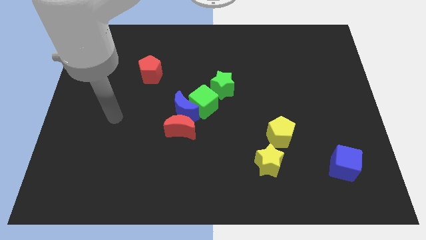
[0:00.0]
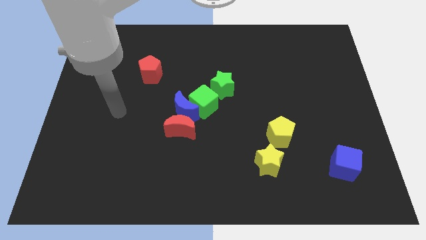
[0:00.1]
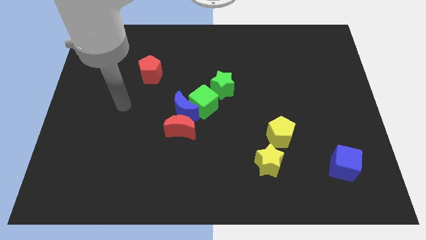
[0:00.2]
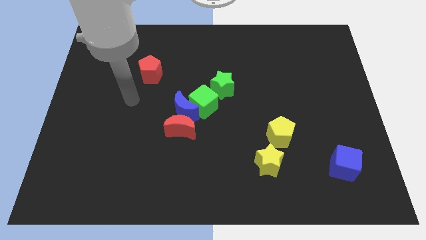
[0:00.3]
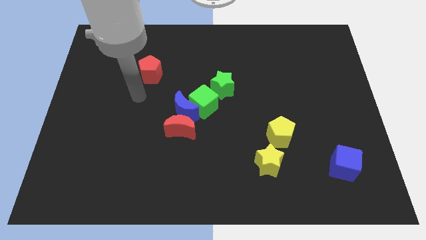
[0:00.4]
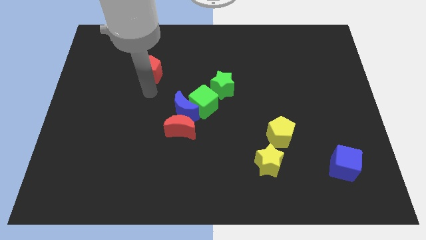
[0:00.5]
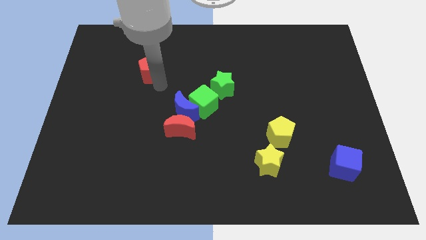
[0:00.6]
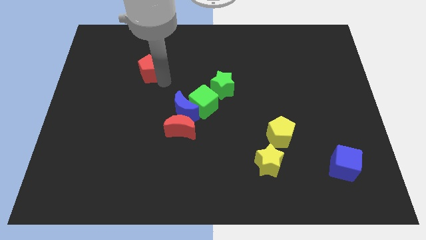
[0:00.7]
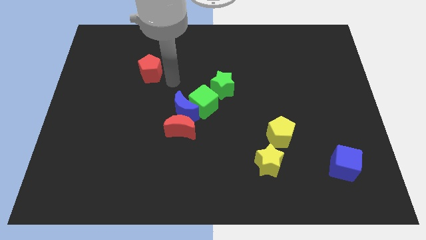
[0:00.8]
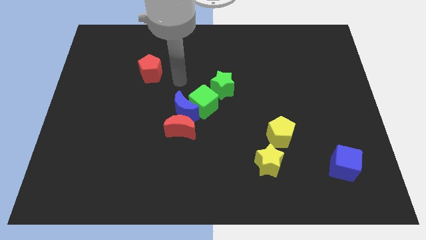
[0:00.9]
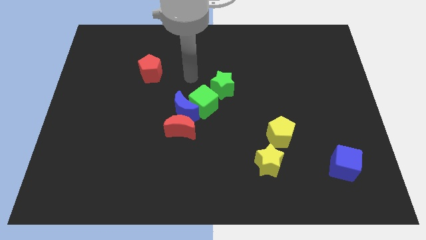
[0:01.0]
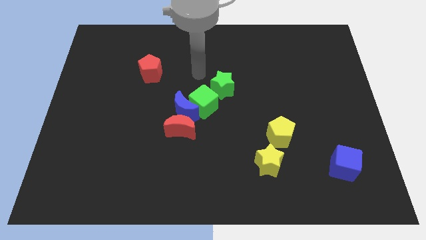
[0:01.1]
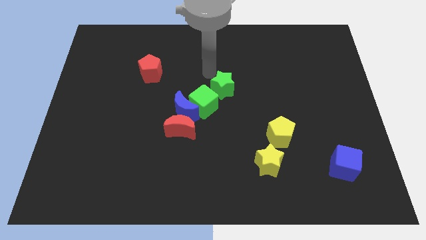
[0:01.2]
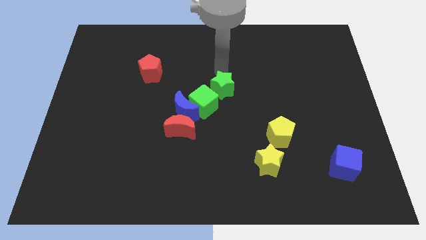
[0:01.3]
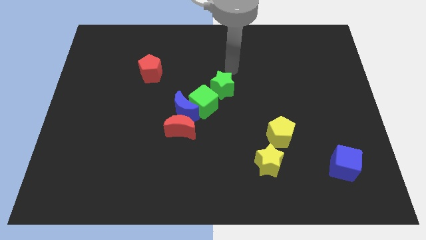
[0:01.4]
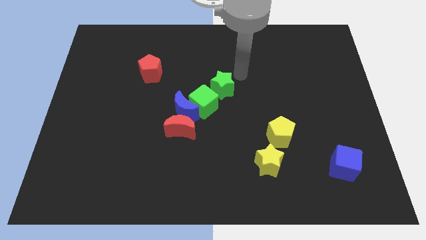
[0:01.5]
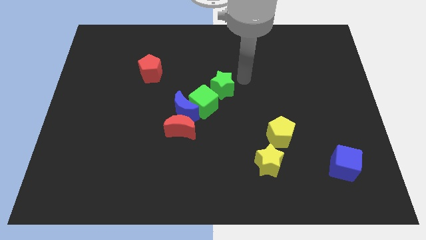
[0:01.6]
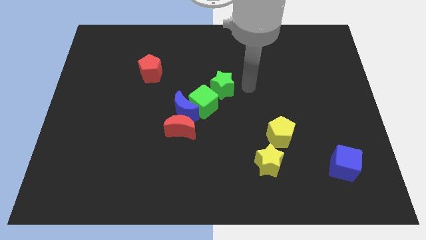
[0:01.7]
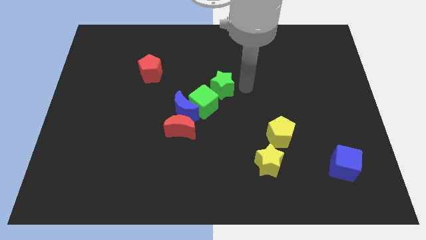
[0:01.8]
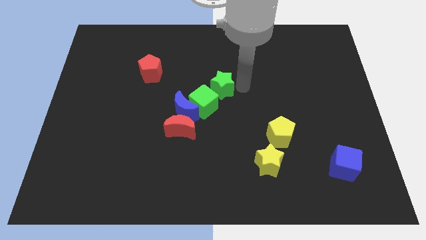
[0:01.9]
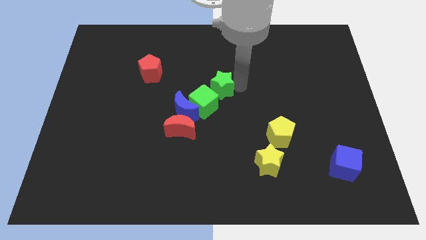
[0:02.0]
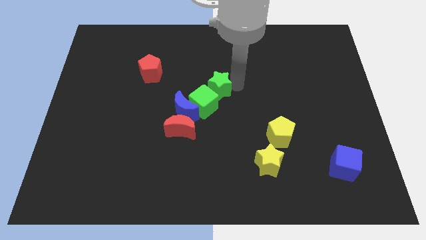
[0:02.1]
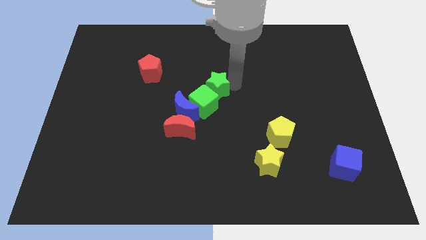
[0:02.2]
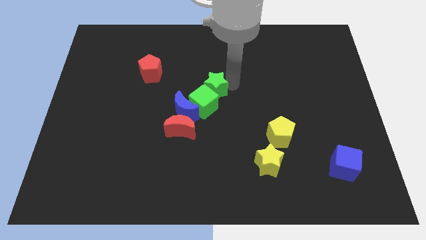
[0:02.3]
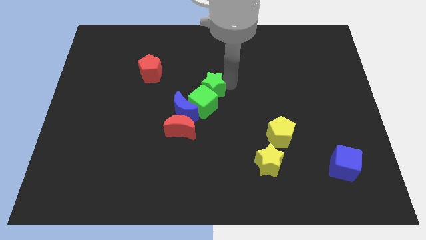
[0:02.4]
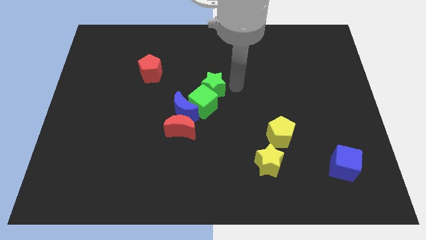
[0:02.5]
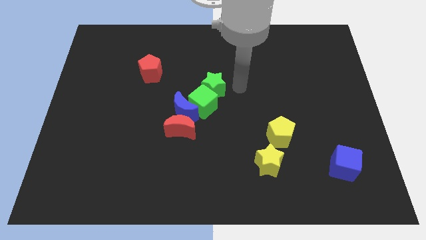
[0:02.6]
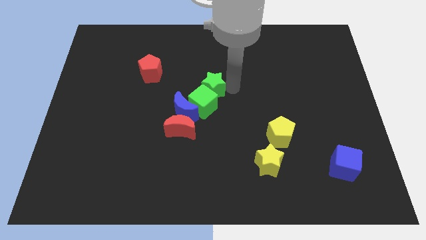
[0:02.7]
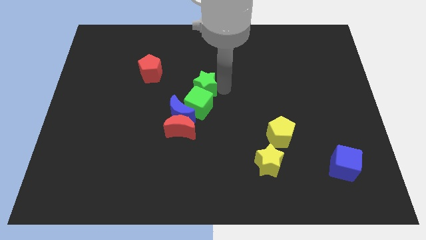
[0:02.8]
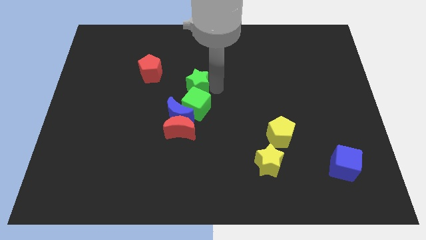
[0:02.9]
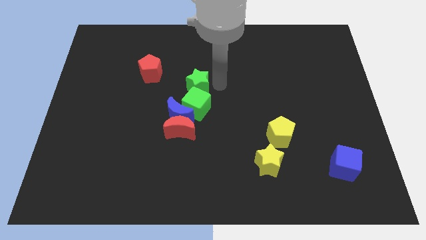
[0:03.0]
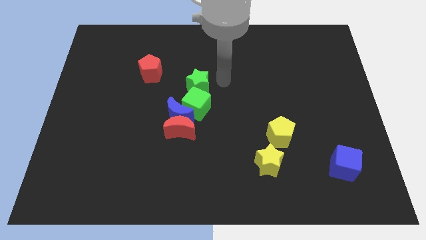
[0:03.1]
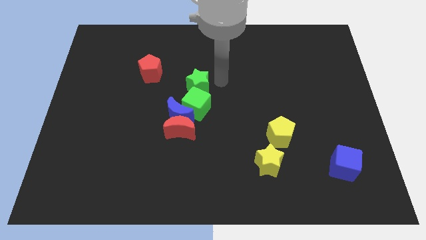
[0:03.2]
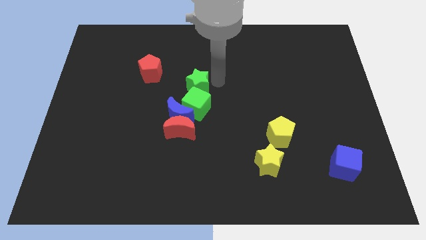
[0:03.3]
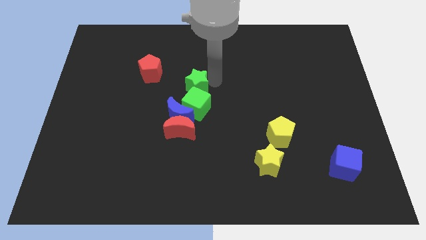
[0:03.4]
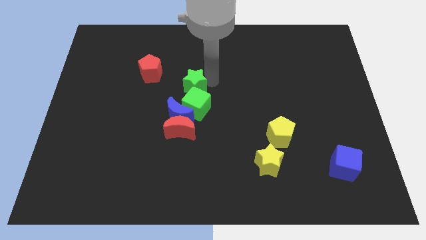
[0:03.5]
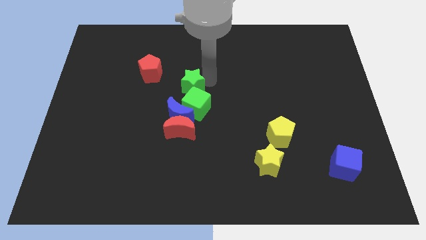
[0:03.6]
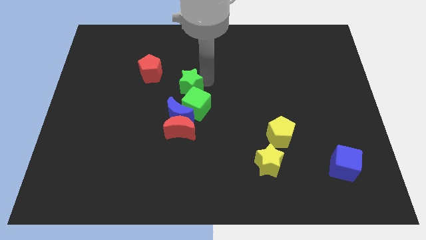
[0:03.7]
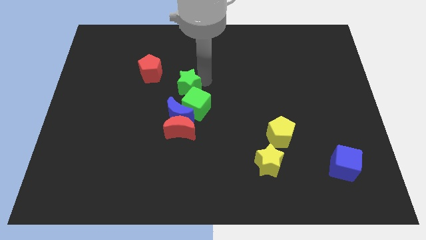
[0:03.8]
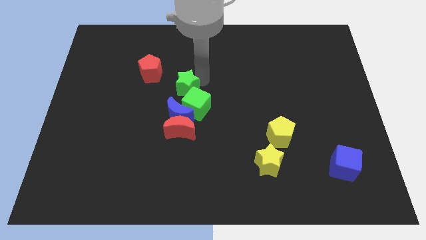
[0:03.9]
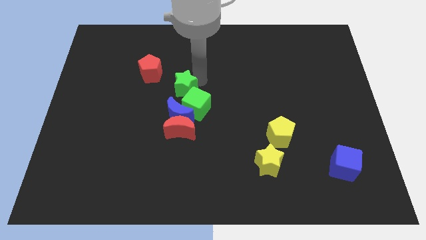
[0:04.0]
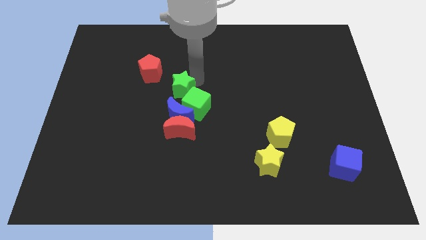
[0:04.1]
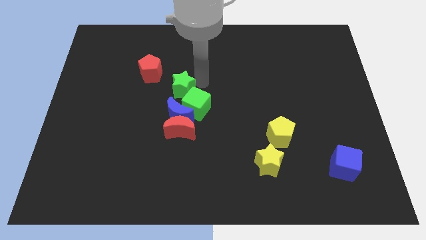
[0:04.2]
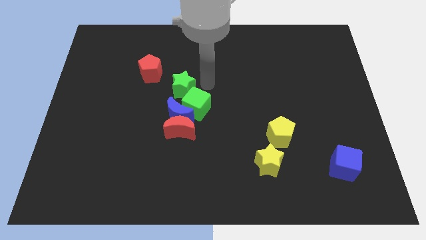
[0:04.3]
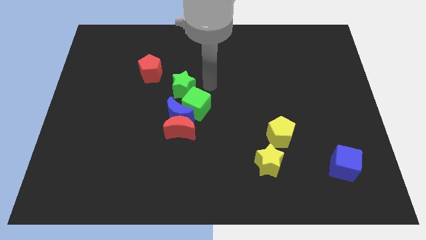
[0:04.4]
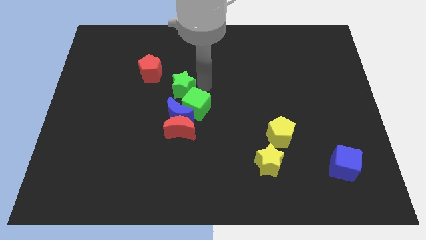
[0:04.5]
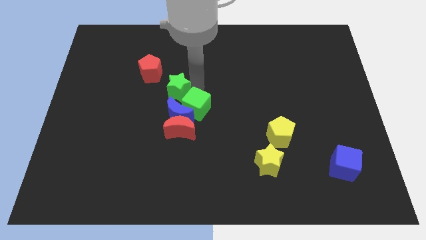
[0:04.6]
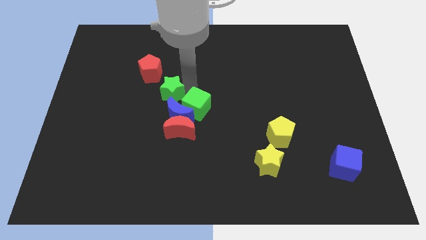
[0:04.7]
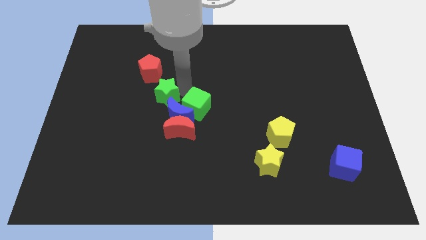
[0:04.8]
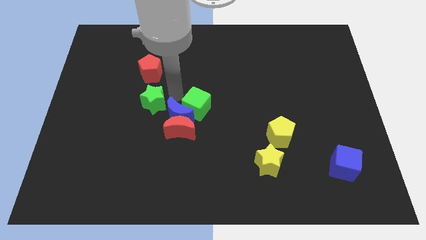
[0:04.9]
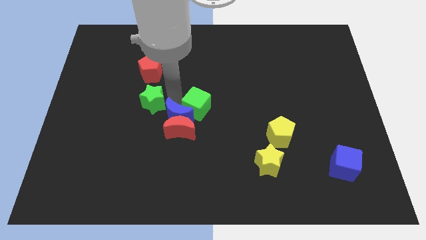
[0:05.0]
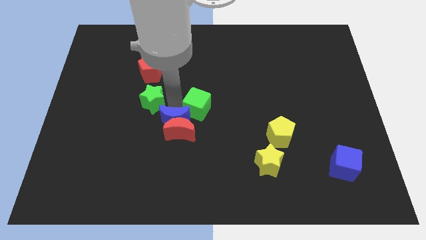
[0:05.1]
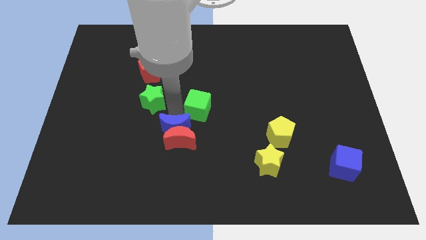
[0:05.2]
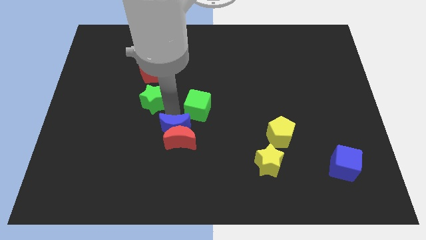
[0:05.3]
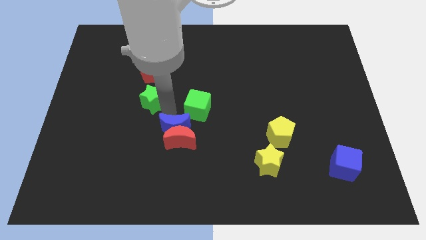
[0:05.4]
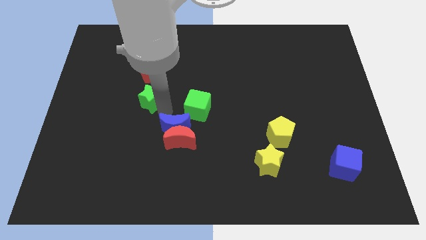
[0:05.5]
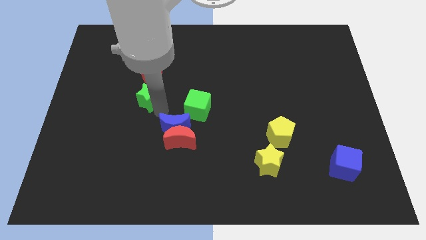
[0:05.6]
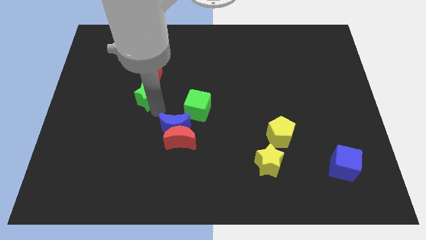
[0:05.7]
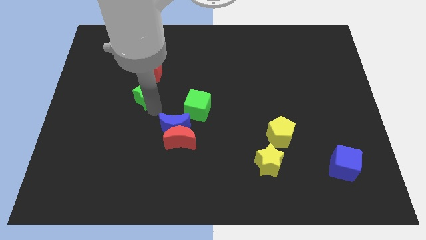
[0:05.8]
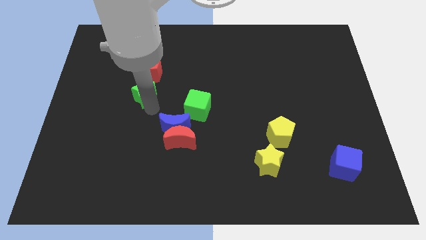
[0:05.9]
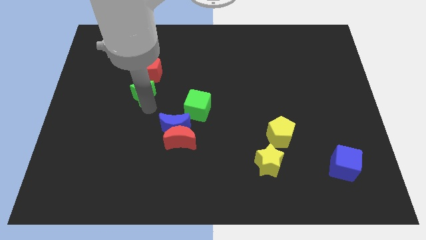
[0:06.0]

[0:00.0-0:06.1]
slide the green star diagonally down and to the left of the red pentagon
